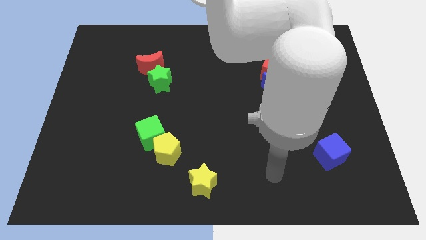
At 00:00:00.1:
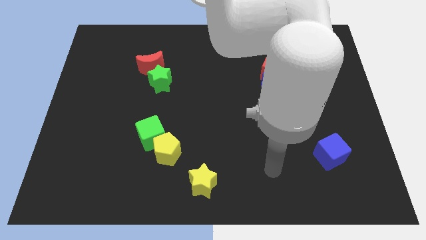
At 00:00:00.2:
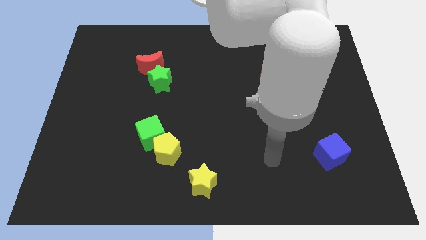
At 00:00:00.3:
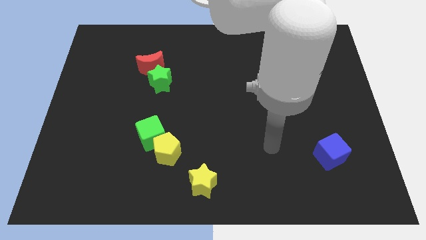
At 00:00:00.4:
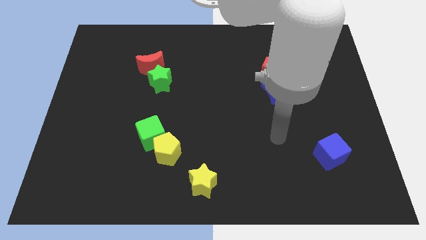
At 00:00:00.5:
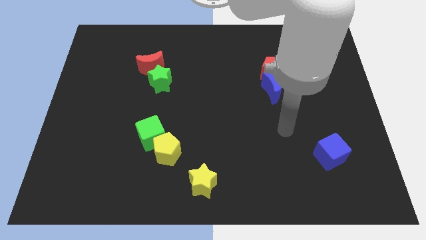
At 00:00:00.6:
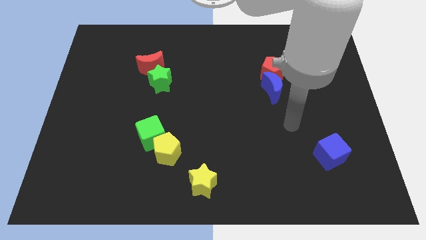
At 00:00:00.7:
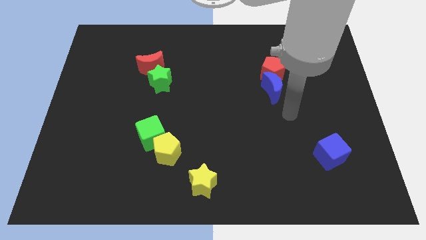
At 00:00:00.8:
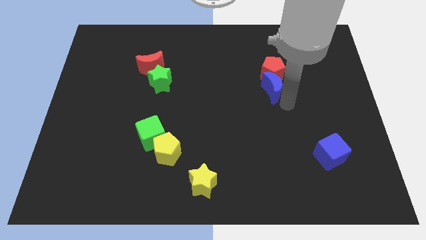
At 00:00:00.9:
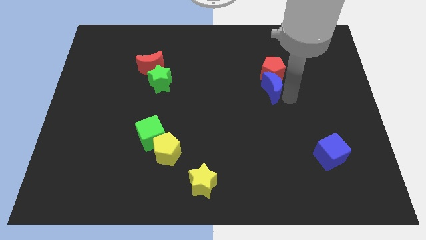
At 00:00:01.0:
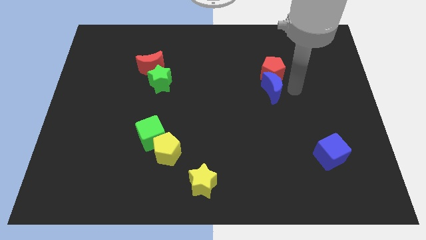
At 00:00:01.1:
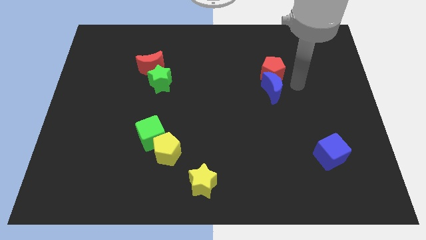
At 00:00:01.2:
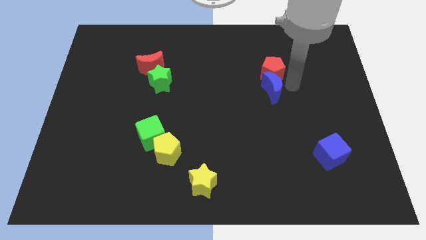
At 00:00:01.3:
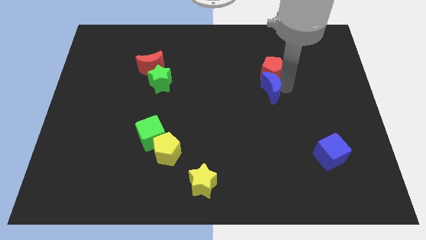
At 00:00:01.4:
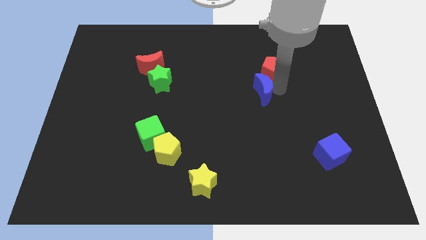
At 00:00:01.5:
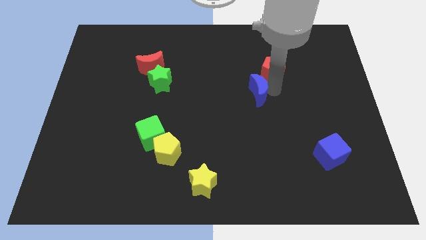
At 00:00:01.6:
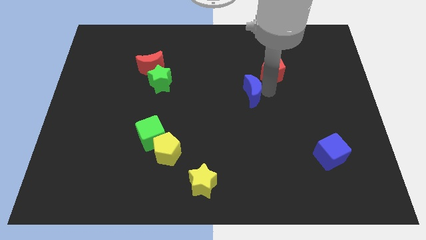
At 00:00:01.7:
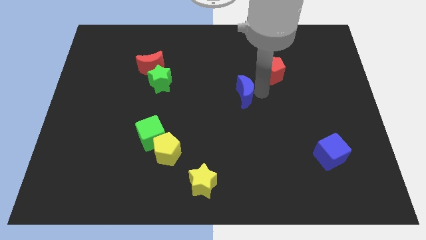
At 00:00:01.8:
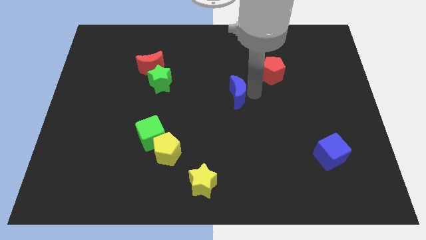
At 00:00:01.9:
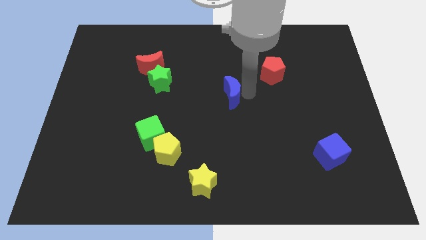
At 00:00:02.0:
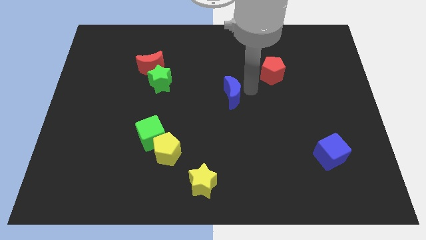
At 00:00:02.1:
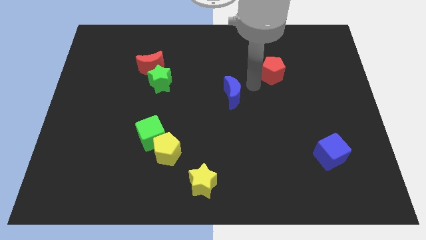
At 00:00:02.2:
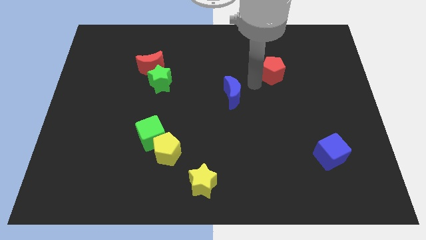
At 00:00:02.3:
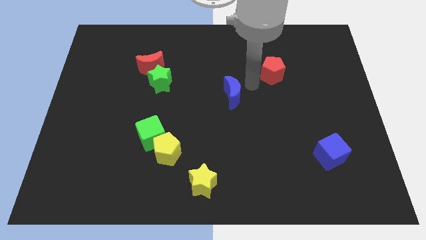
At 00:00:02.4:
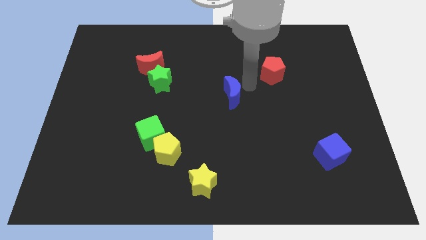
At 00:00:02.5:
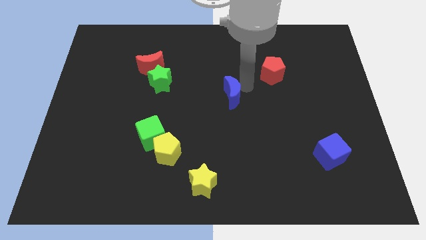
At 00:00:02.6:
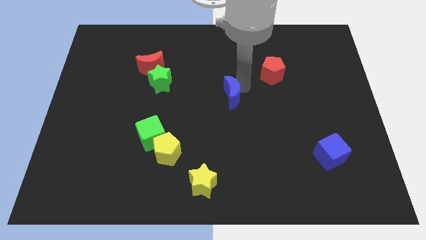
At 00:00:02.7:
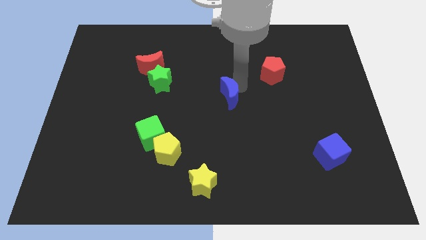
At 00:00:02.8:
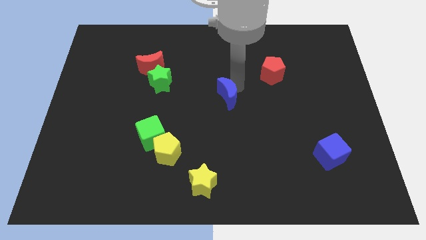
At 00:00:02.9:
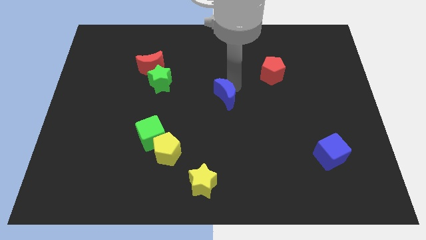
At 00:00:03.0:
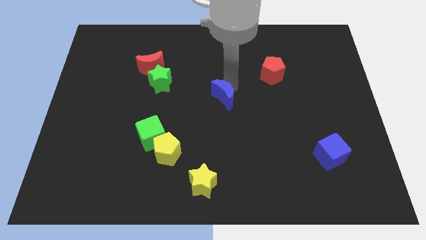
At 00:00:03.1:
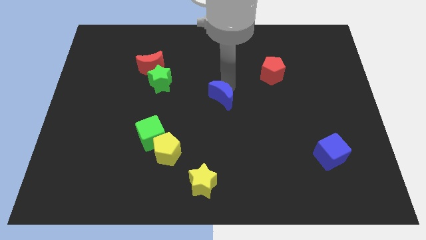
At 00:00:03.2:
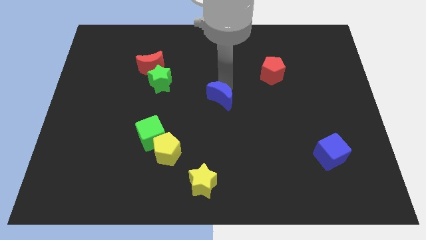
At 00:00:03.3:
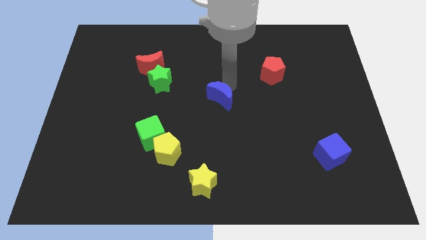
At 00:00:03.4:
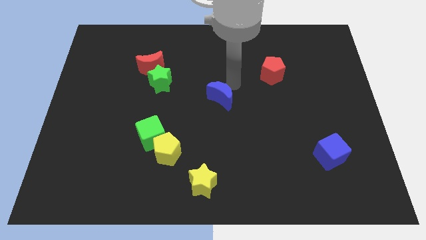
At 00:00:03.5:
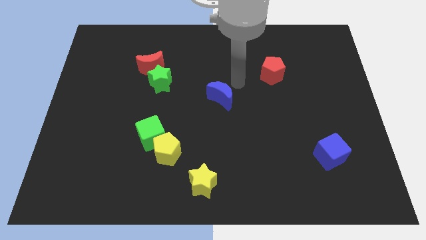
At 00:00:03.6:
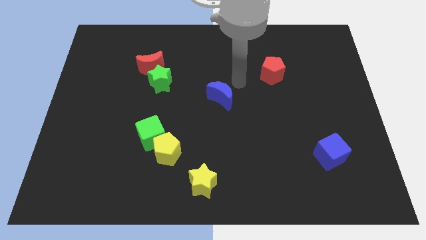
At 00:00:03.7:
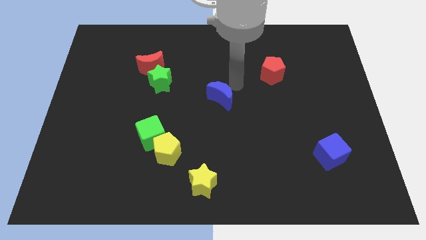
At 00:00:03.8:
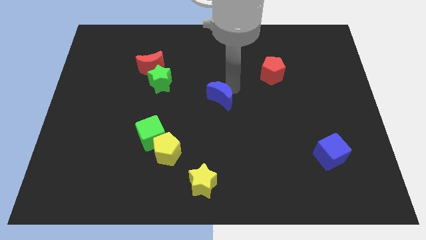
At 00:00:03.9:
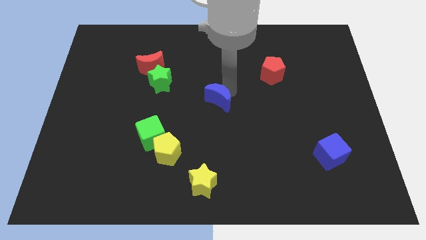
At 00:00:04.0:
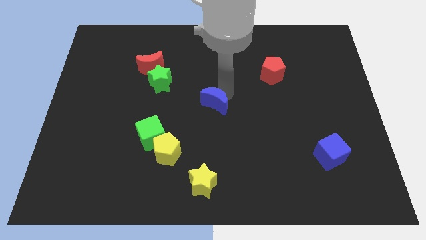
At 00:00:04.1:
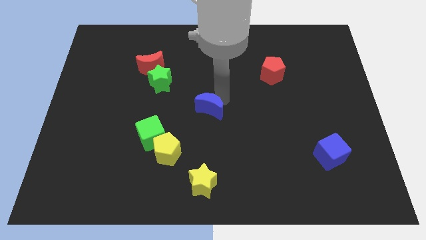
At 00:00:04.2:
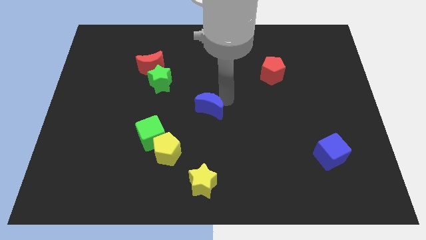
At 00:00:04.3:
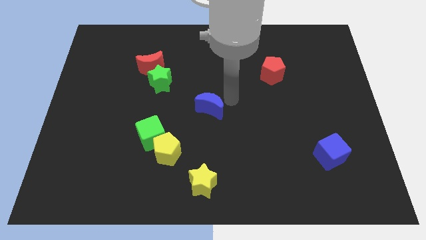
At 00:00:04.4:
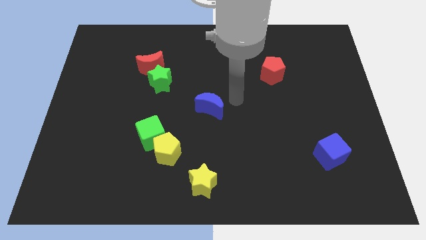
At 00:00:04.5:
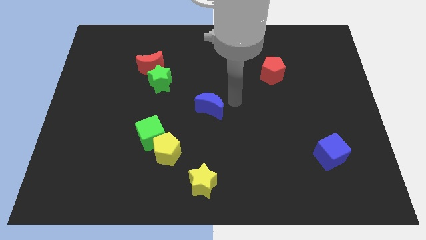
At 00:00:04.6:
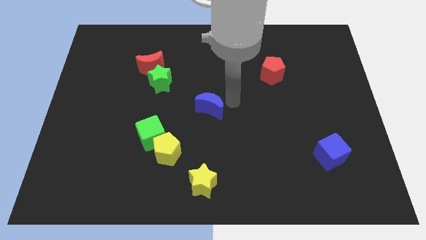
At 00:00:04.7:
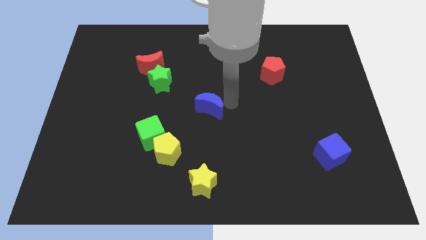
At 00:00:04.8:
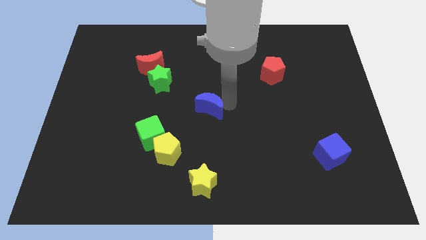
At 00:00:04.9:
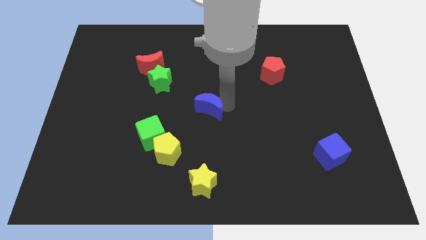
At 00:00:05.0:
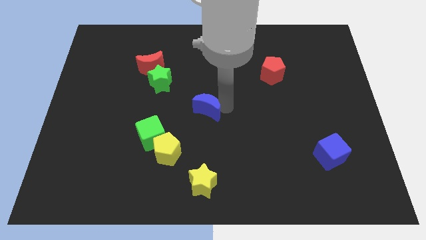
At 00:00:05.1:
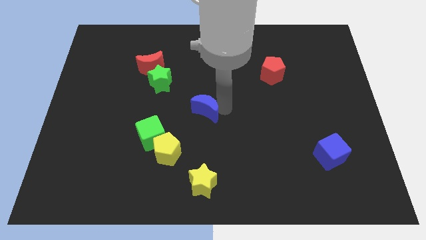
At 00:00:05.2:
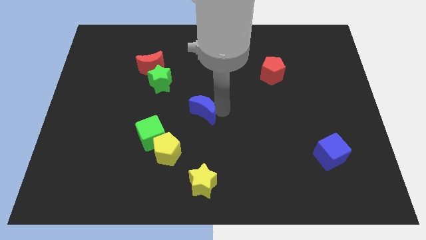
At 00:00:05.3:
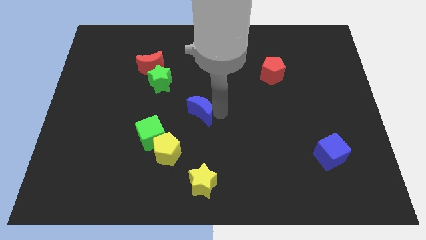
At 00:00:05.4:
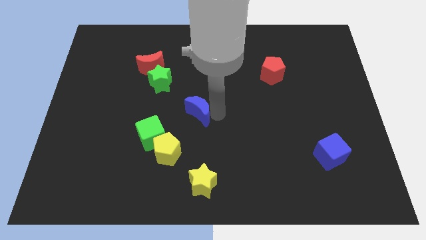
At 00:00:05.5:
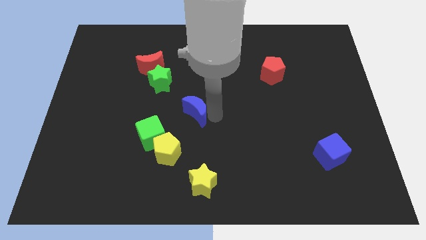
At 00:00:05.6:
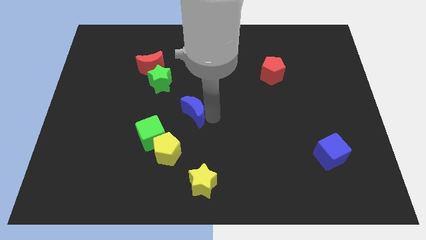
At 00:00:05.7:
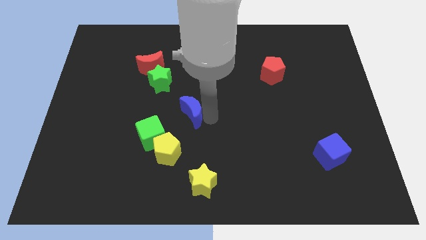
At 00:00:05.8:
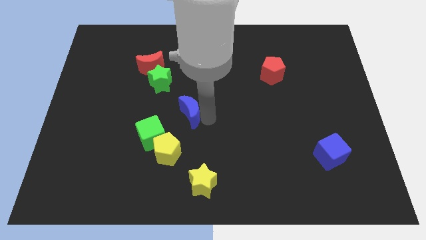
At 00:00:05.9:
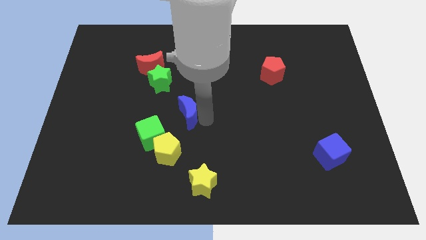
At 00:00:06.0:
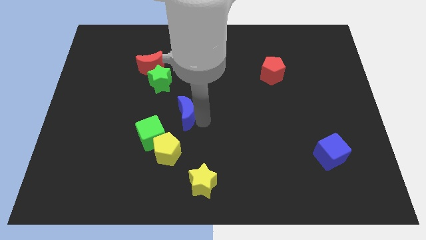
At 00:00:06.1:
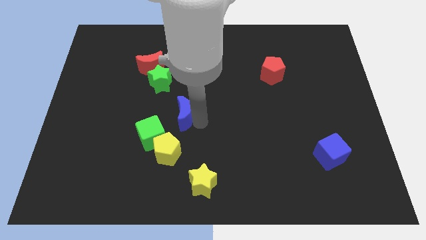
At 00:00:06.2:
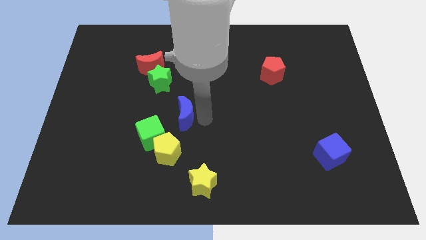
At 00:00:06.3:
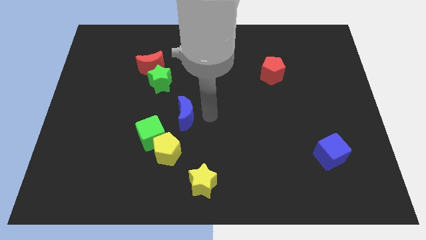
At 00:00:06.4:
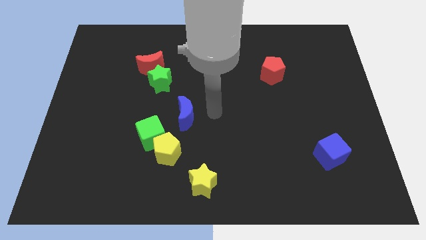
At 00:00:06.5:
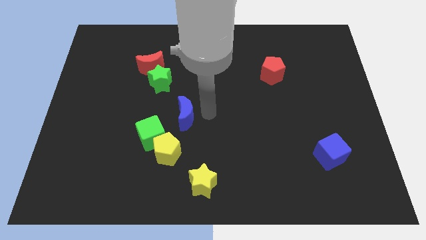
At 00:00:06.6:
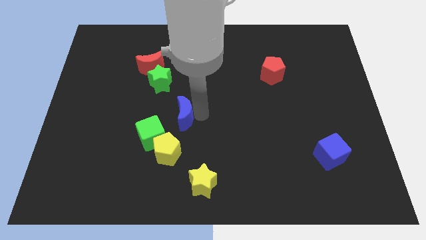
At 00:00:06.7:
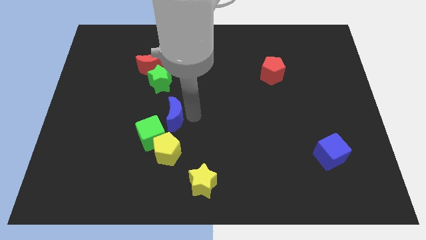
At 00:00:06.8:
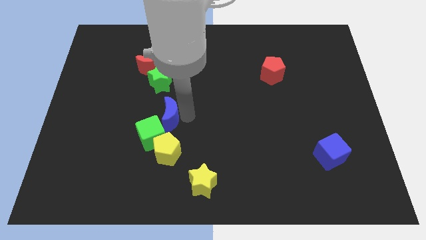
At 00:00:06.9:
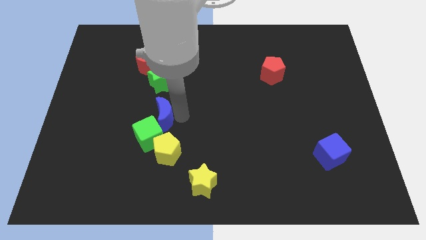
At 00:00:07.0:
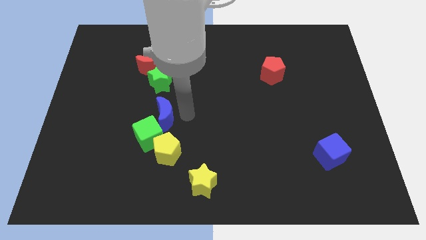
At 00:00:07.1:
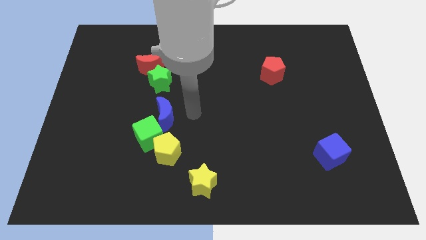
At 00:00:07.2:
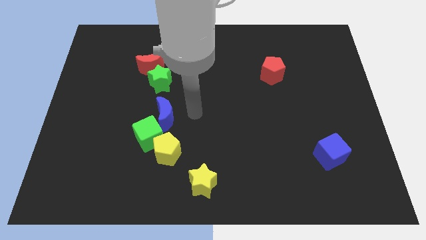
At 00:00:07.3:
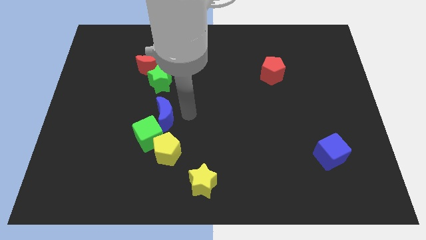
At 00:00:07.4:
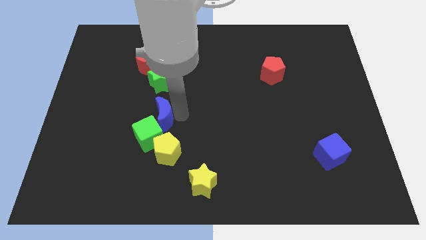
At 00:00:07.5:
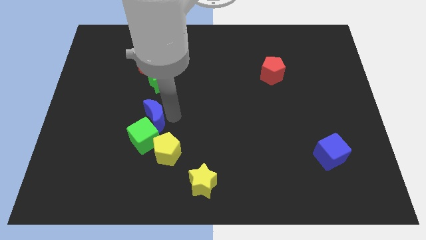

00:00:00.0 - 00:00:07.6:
slide the blue moon to the top left of the yellow pentagon
